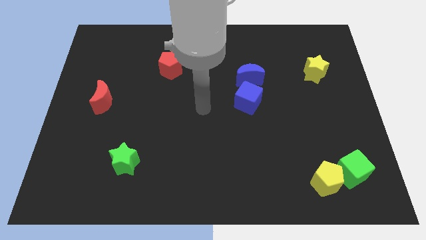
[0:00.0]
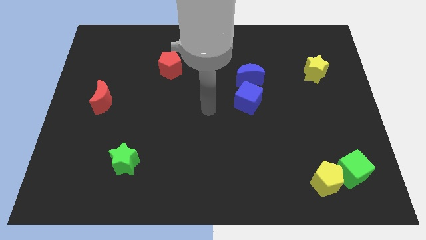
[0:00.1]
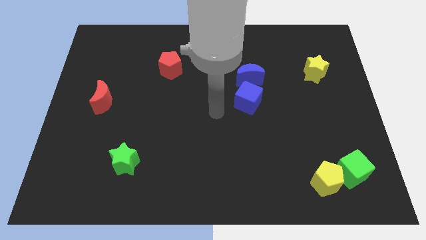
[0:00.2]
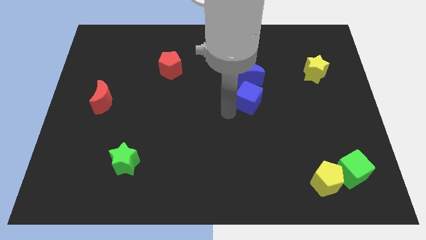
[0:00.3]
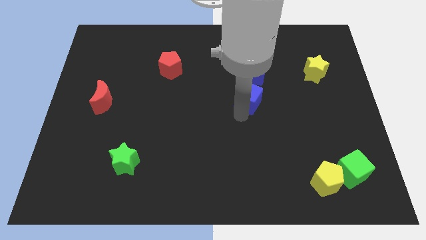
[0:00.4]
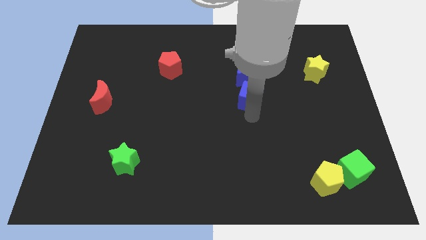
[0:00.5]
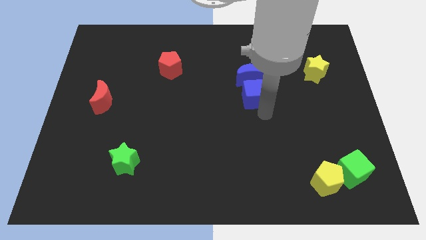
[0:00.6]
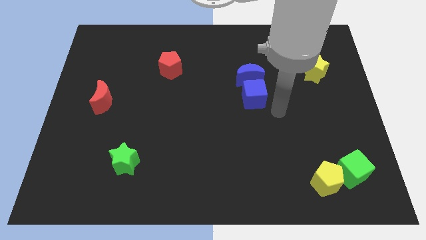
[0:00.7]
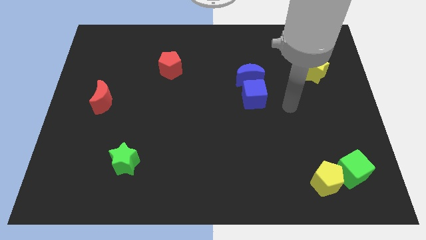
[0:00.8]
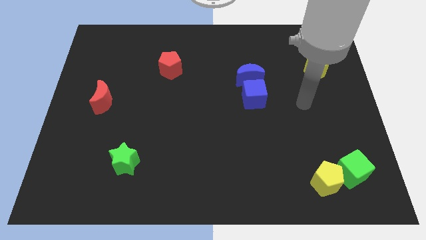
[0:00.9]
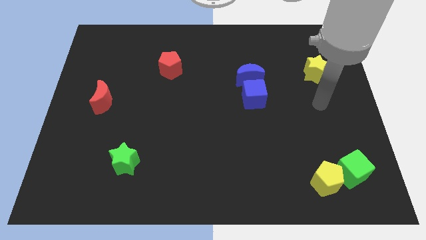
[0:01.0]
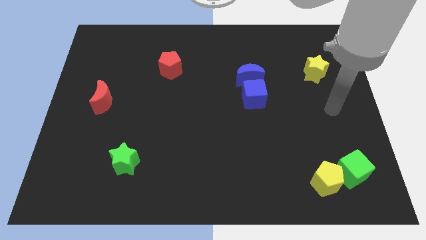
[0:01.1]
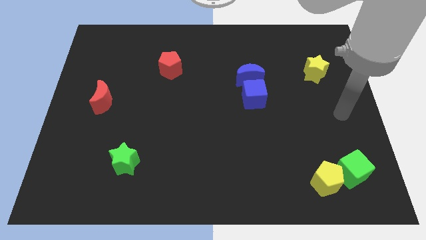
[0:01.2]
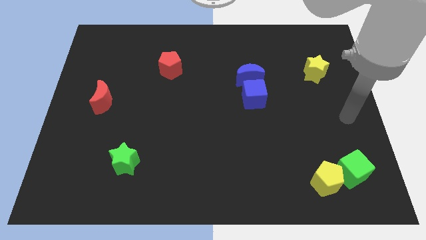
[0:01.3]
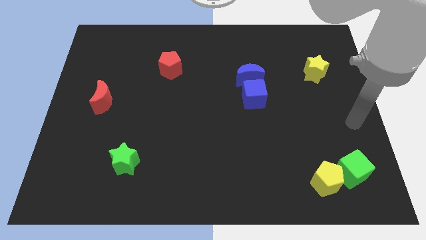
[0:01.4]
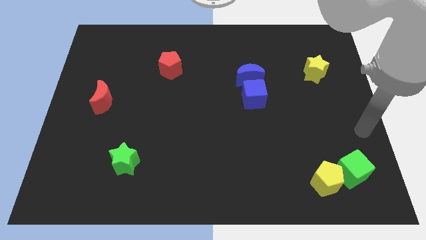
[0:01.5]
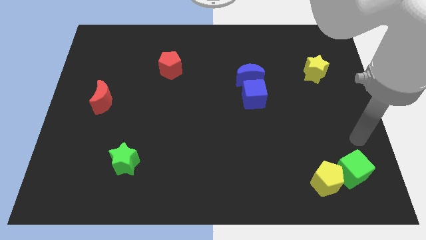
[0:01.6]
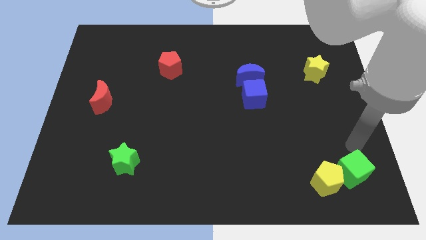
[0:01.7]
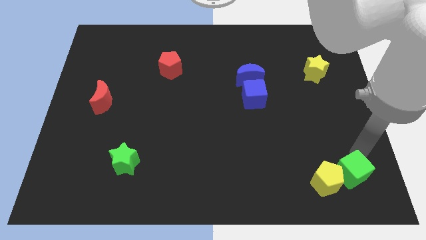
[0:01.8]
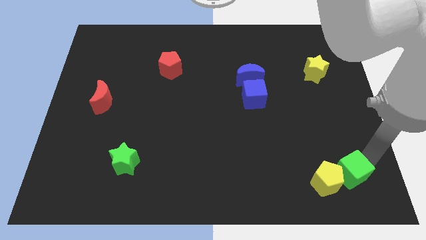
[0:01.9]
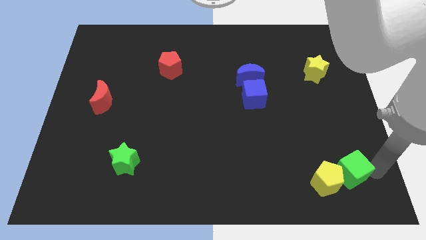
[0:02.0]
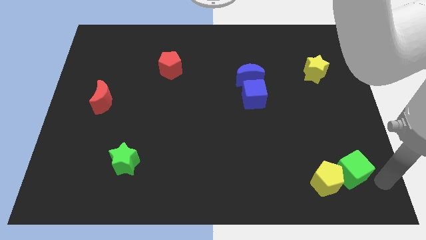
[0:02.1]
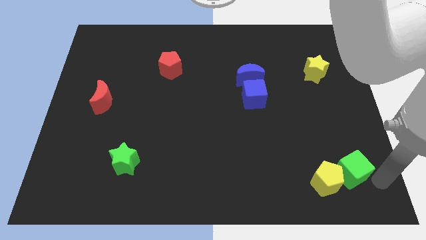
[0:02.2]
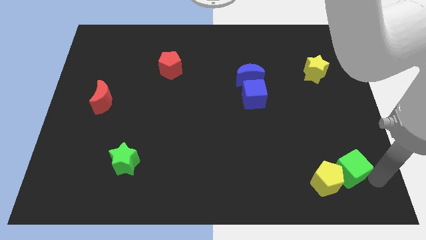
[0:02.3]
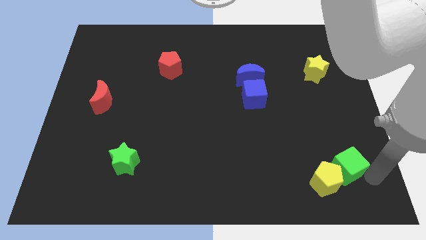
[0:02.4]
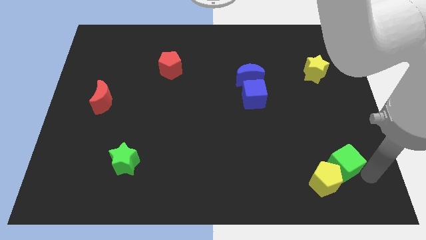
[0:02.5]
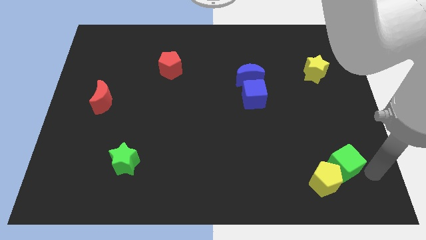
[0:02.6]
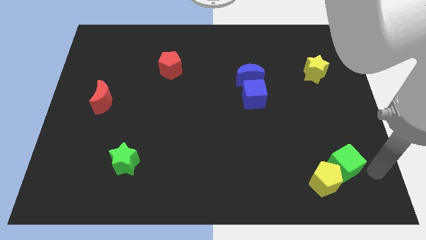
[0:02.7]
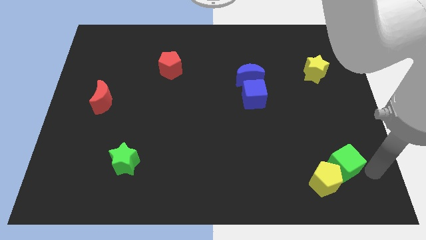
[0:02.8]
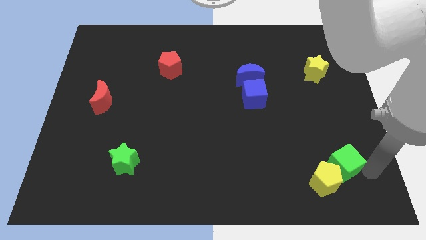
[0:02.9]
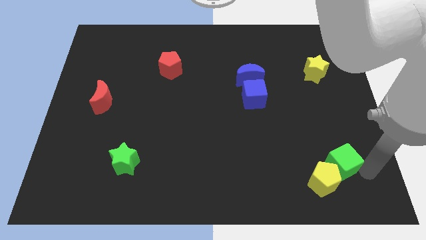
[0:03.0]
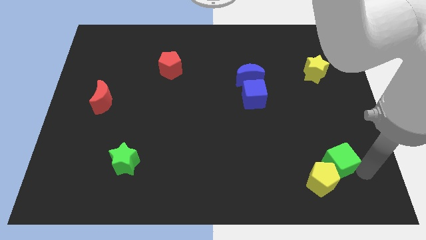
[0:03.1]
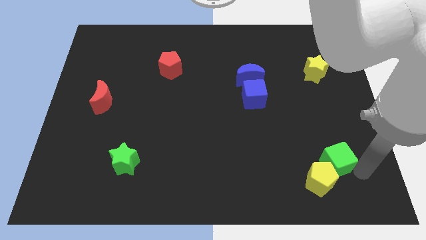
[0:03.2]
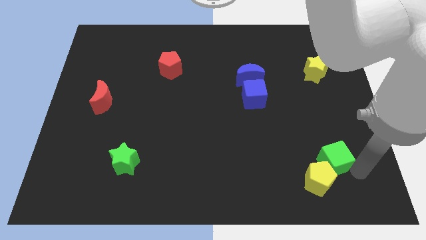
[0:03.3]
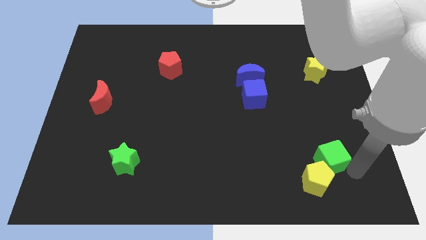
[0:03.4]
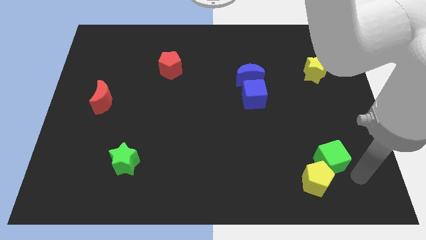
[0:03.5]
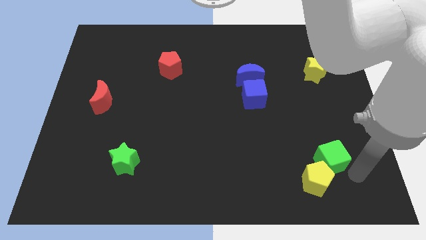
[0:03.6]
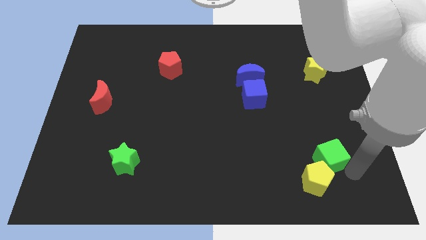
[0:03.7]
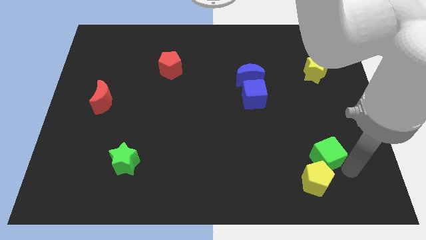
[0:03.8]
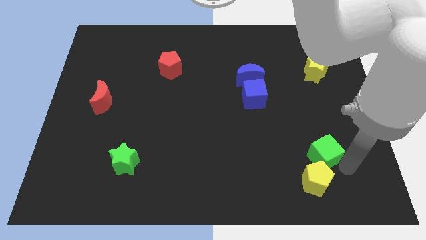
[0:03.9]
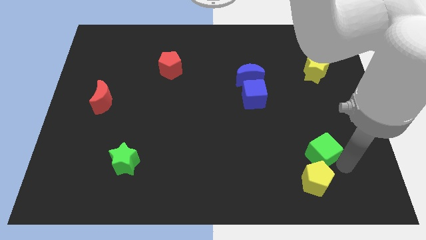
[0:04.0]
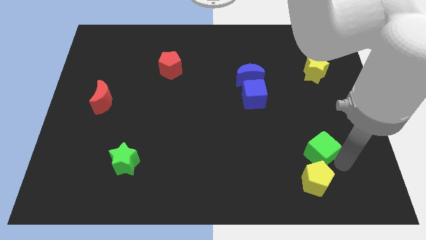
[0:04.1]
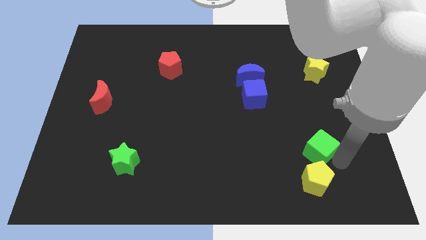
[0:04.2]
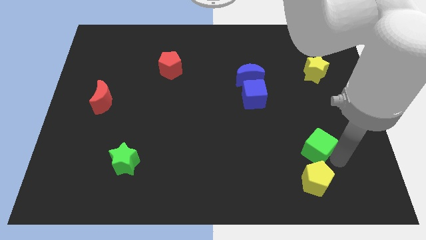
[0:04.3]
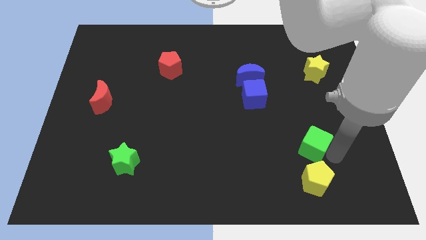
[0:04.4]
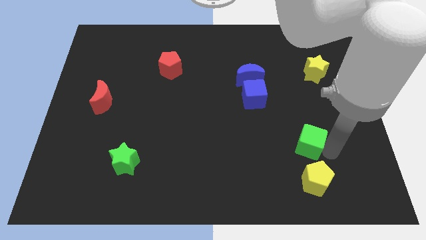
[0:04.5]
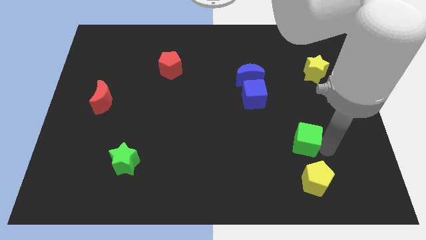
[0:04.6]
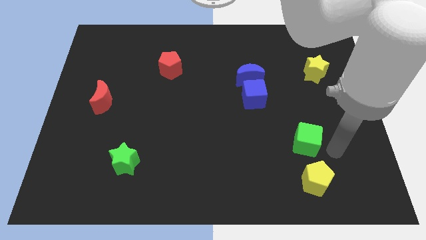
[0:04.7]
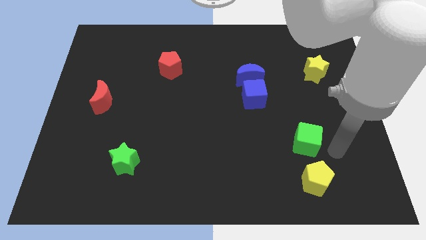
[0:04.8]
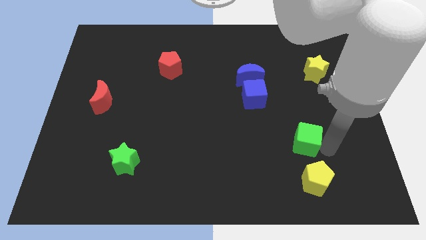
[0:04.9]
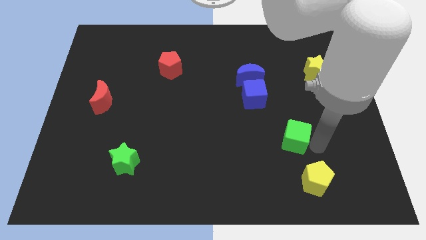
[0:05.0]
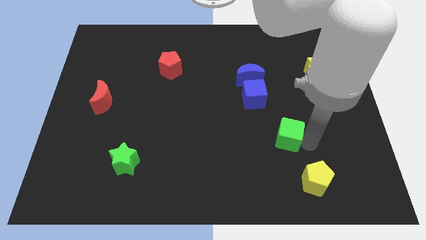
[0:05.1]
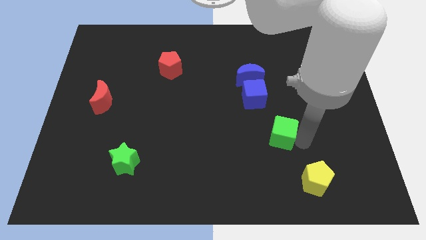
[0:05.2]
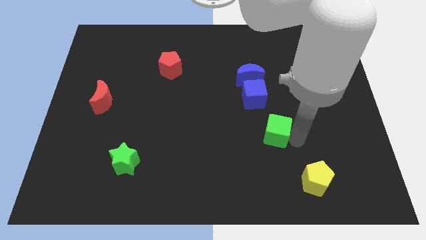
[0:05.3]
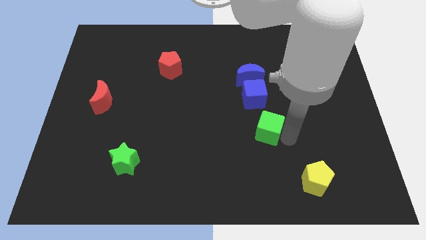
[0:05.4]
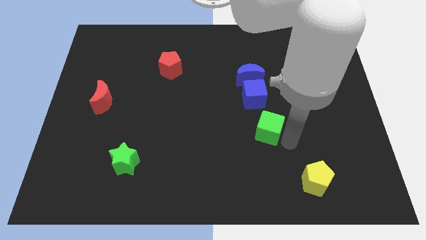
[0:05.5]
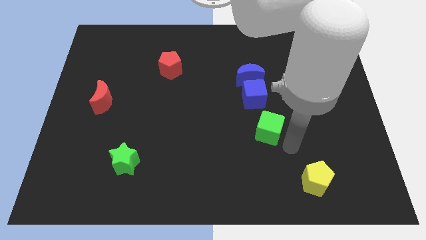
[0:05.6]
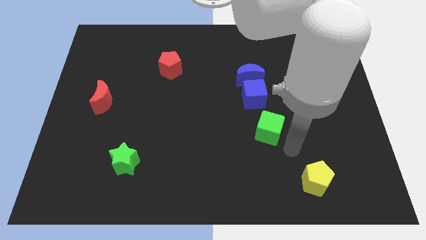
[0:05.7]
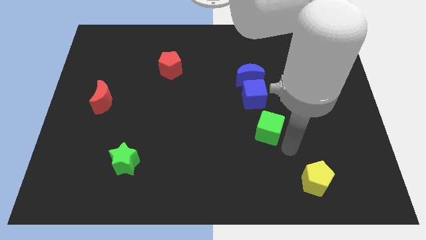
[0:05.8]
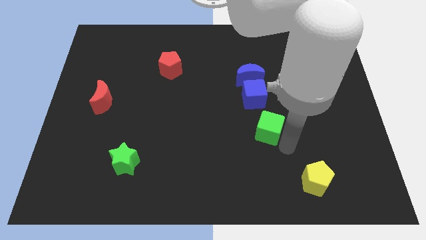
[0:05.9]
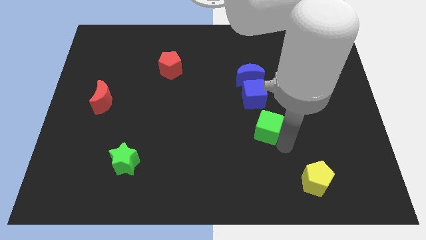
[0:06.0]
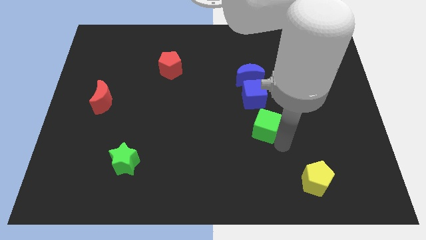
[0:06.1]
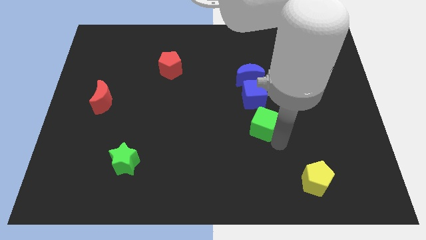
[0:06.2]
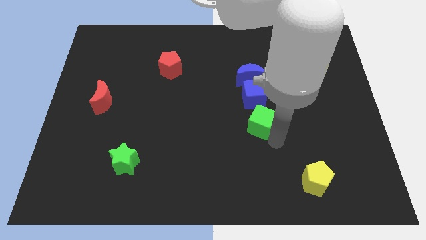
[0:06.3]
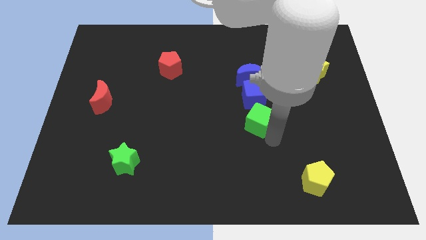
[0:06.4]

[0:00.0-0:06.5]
put the green cube to the middle of the board
